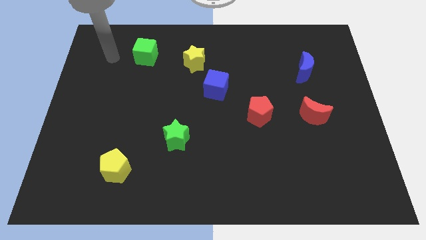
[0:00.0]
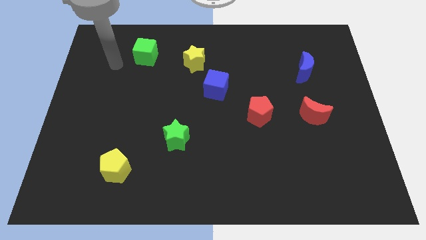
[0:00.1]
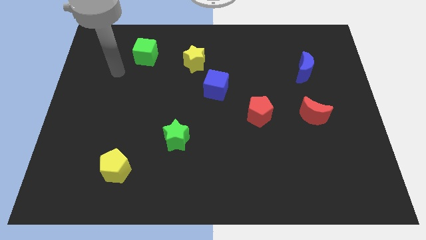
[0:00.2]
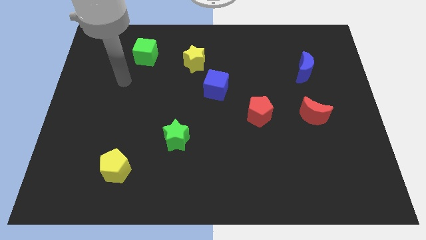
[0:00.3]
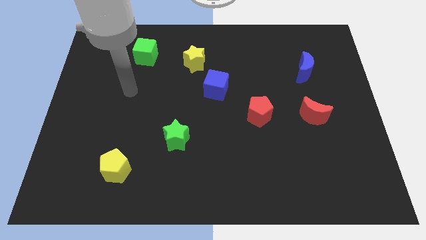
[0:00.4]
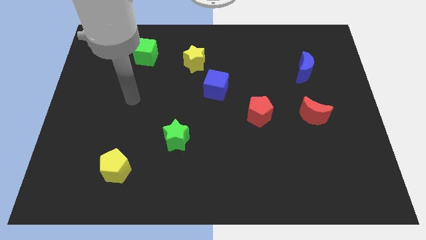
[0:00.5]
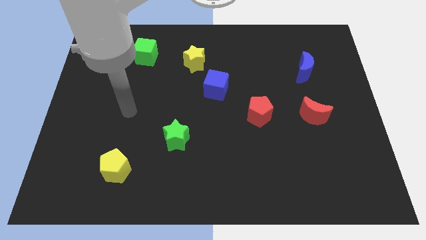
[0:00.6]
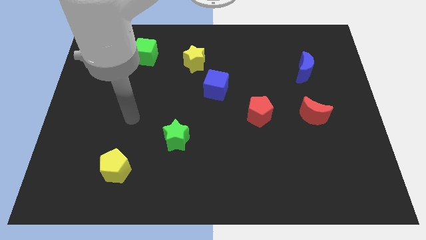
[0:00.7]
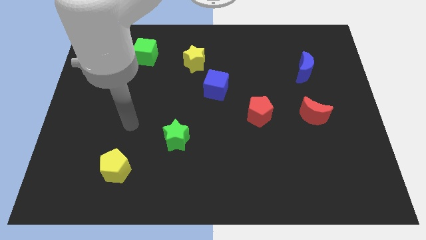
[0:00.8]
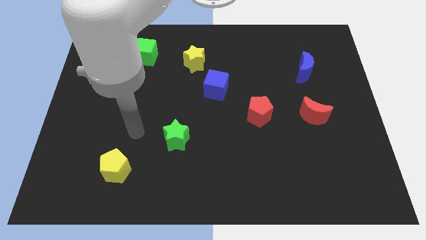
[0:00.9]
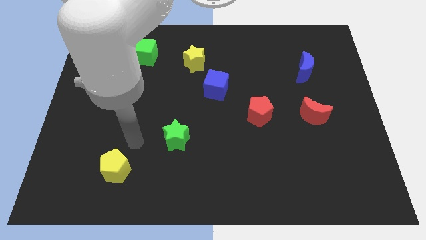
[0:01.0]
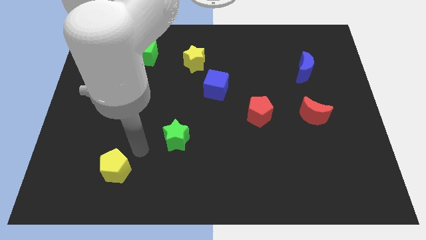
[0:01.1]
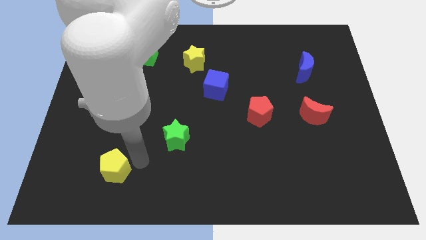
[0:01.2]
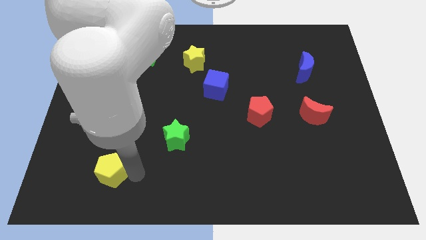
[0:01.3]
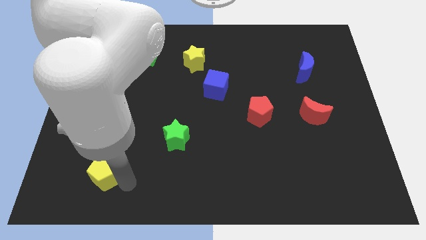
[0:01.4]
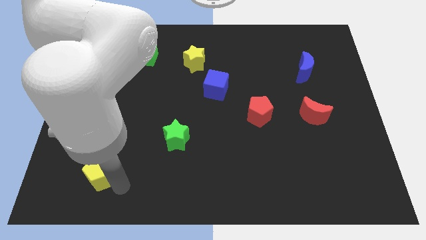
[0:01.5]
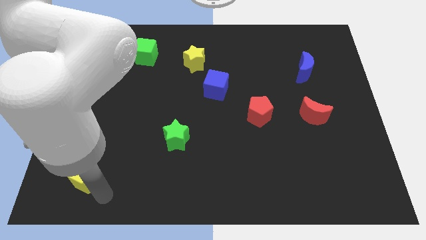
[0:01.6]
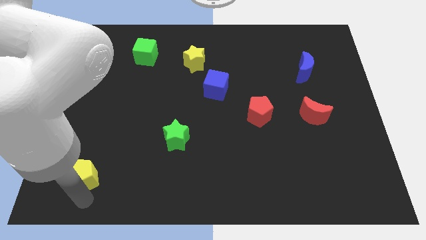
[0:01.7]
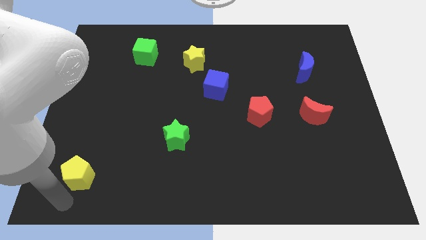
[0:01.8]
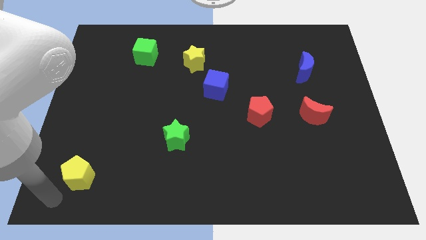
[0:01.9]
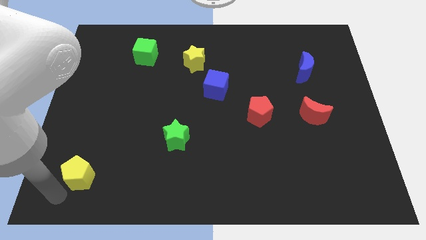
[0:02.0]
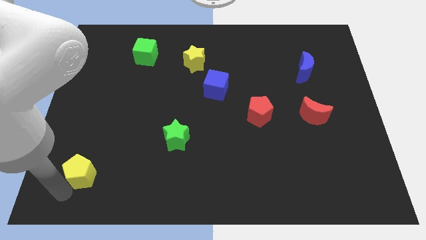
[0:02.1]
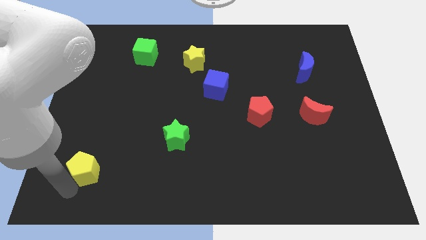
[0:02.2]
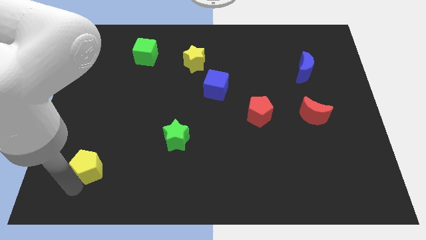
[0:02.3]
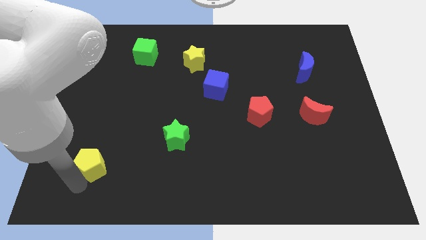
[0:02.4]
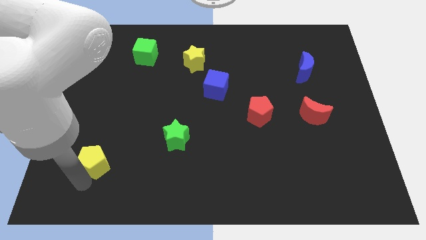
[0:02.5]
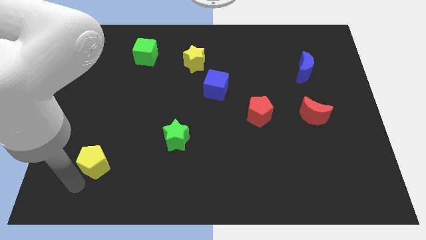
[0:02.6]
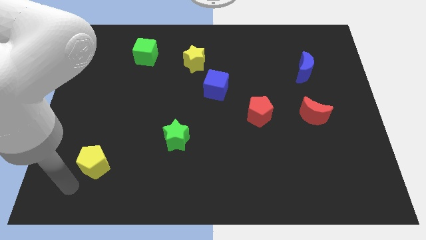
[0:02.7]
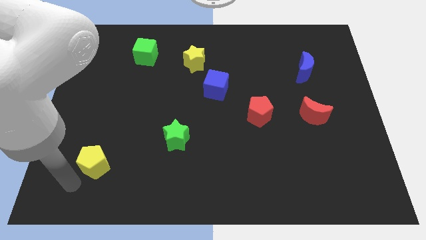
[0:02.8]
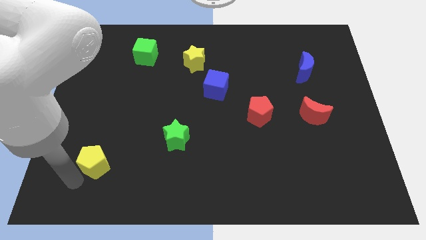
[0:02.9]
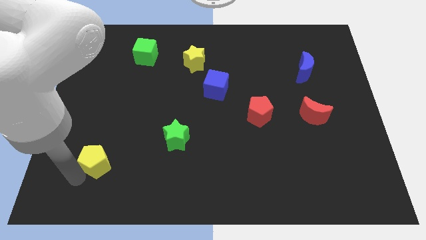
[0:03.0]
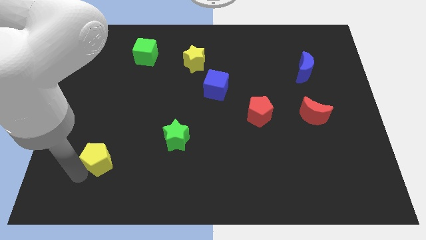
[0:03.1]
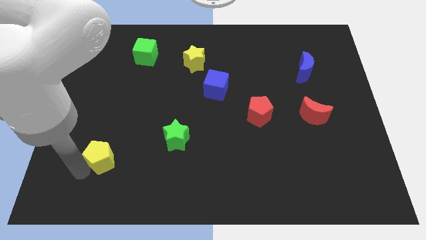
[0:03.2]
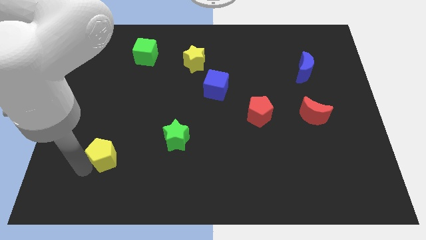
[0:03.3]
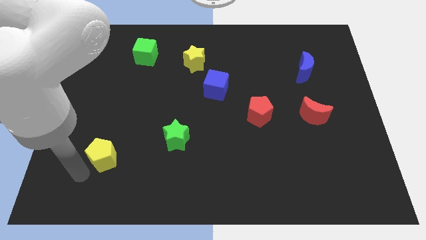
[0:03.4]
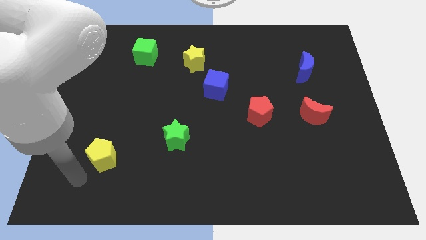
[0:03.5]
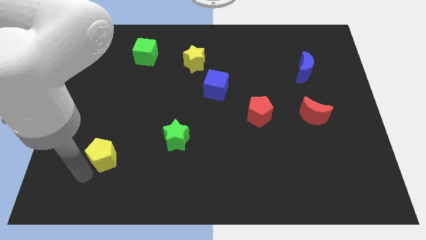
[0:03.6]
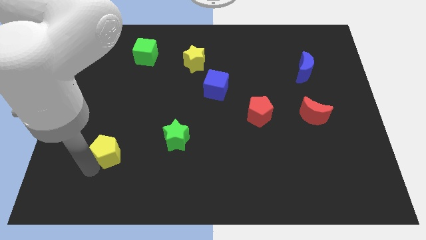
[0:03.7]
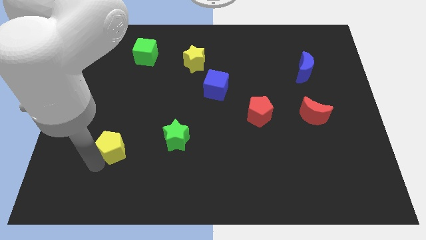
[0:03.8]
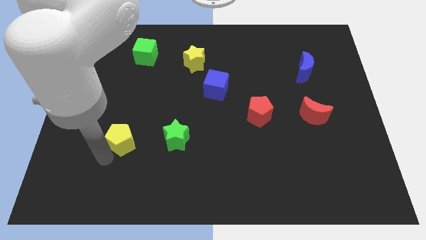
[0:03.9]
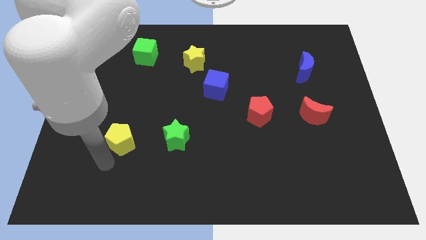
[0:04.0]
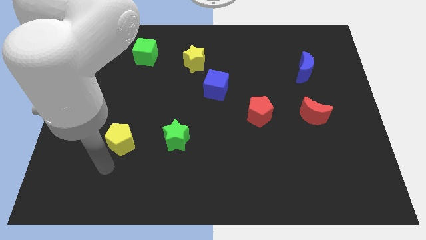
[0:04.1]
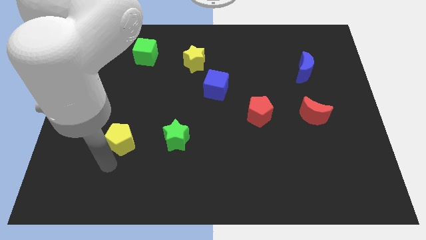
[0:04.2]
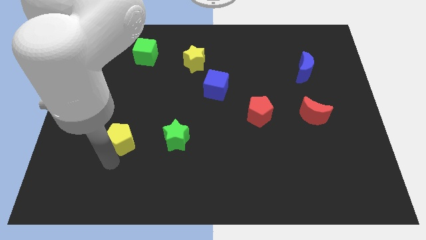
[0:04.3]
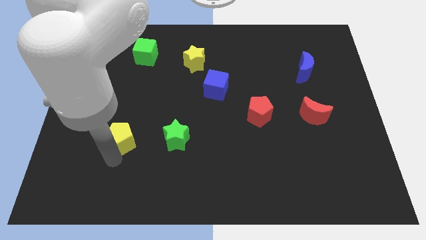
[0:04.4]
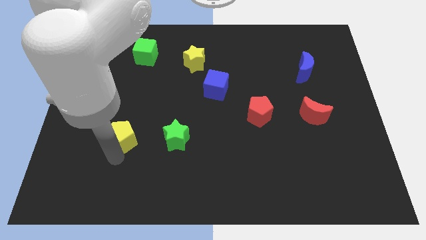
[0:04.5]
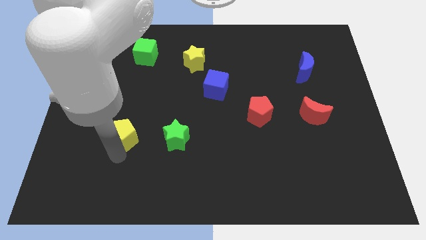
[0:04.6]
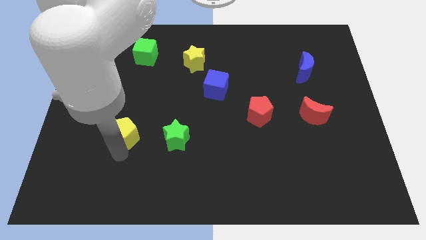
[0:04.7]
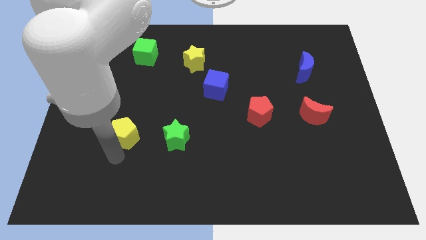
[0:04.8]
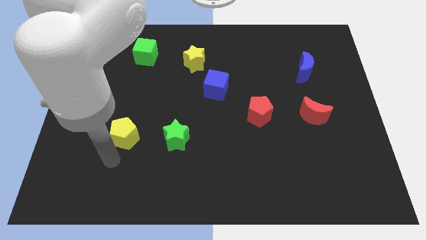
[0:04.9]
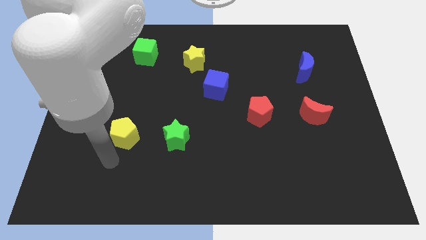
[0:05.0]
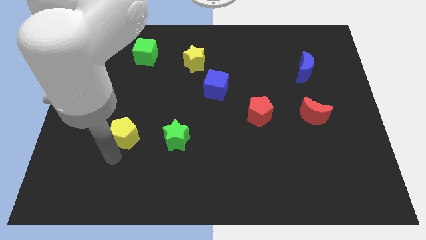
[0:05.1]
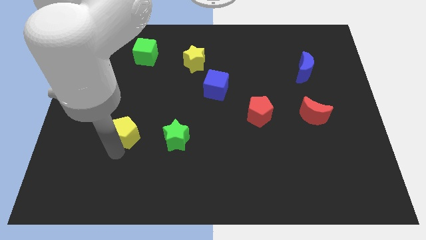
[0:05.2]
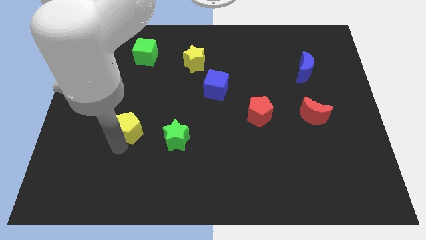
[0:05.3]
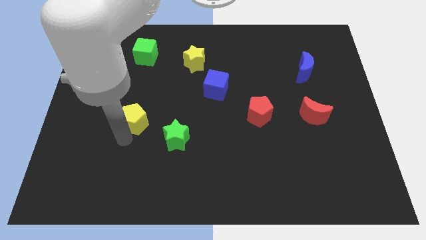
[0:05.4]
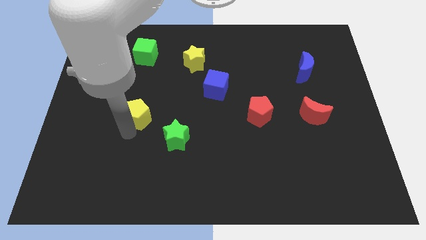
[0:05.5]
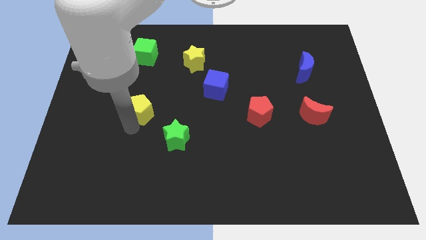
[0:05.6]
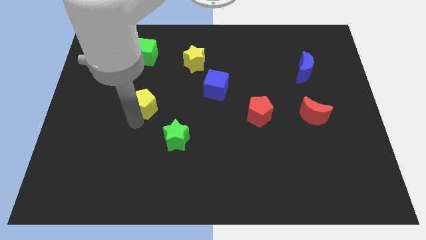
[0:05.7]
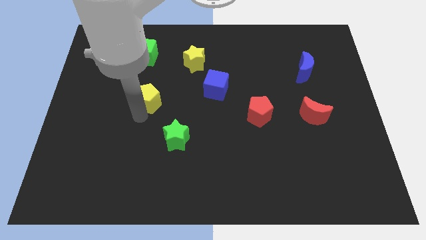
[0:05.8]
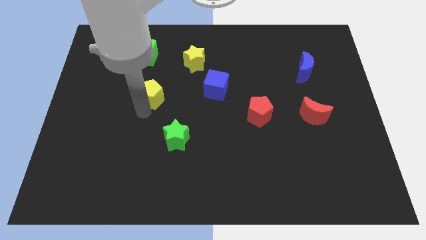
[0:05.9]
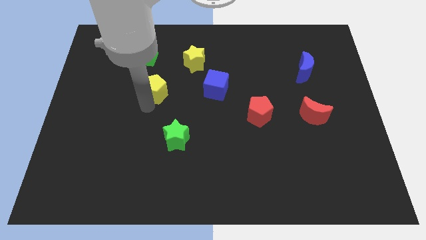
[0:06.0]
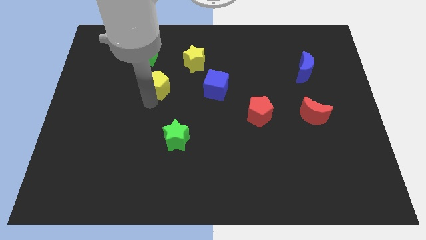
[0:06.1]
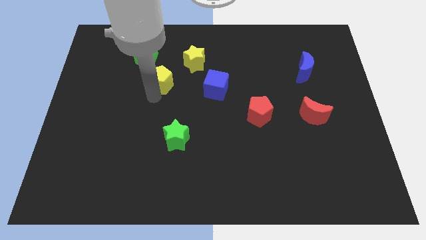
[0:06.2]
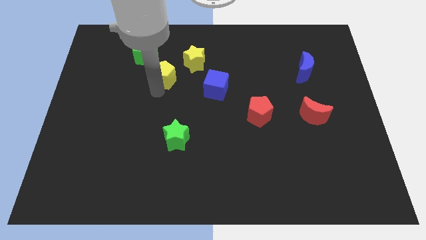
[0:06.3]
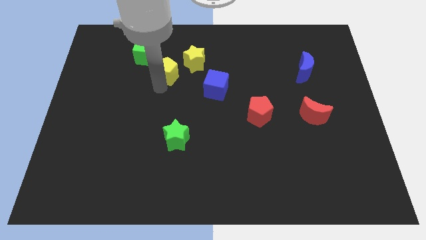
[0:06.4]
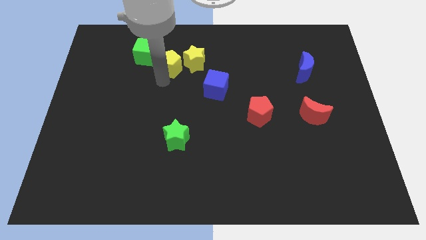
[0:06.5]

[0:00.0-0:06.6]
put the yellow pentagon just right of the green cube

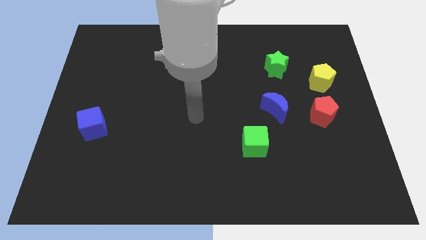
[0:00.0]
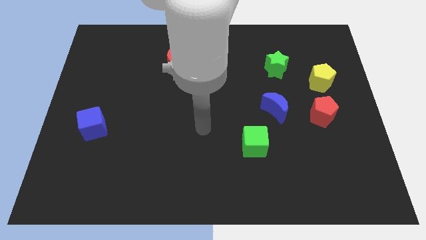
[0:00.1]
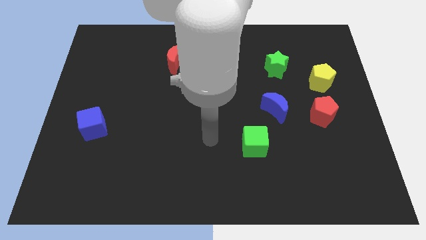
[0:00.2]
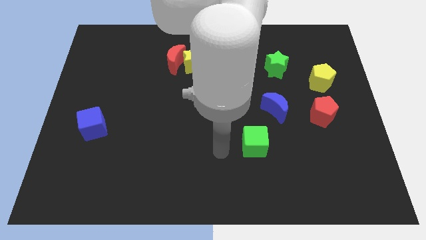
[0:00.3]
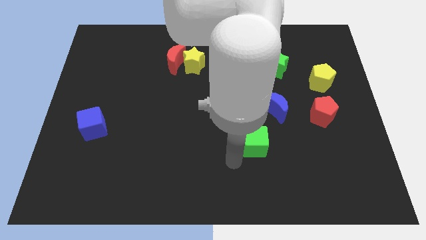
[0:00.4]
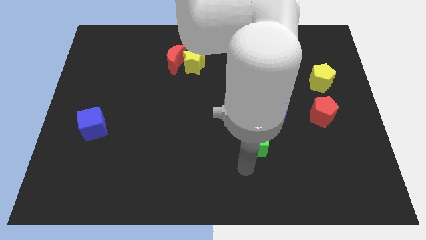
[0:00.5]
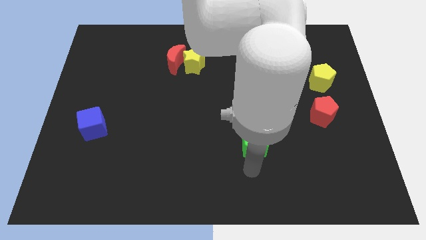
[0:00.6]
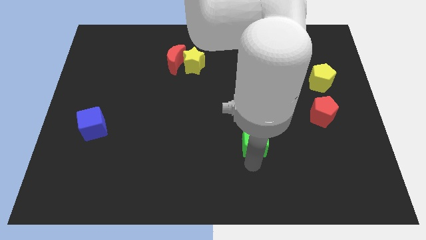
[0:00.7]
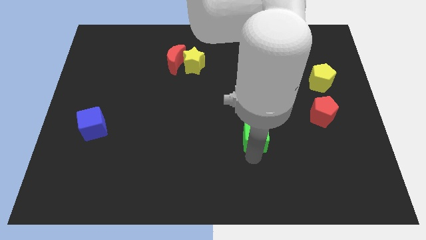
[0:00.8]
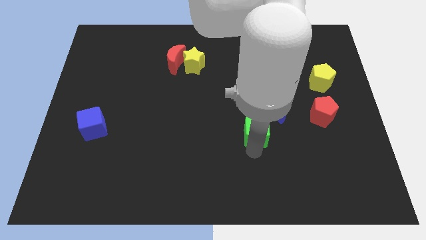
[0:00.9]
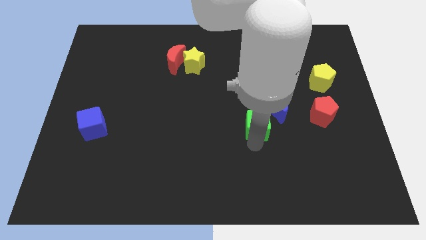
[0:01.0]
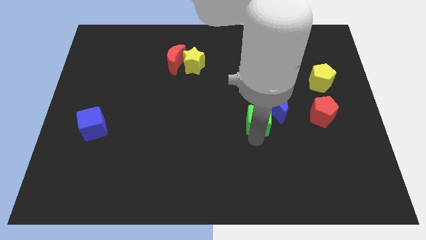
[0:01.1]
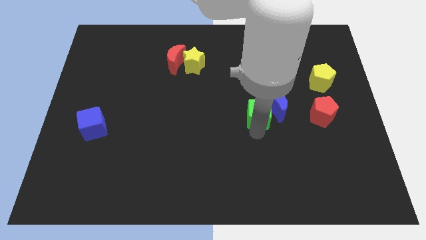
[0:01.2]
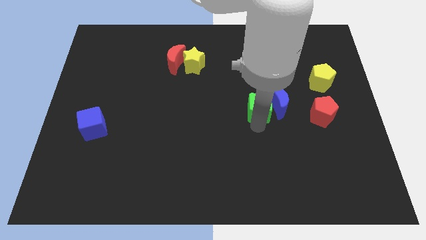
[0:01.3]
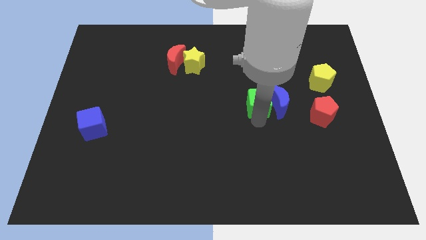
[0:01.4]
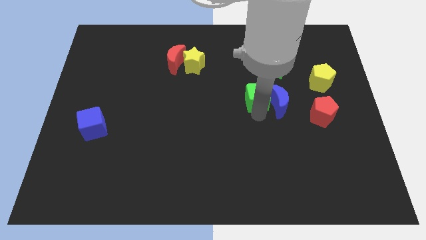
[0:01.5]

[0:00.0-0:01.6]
push the green cube to the bottom left side of the green star
